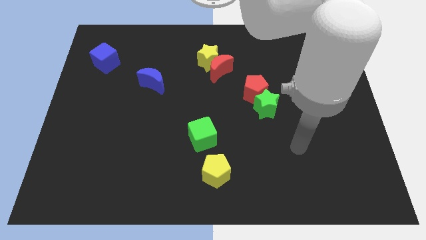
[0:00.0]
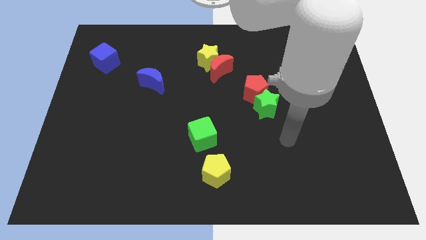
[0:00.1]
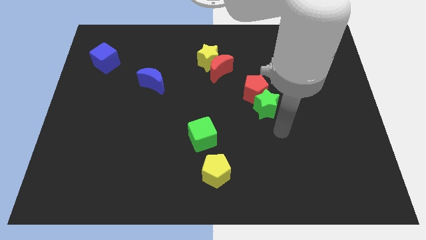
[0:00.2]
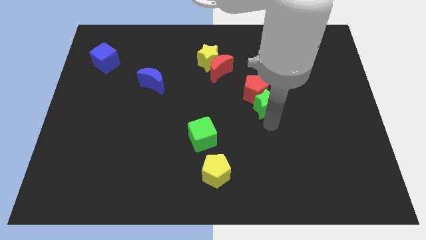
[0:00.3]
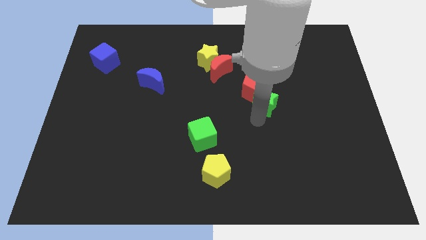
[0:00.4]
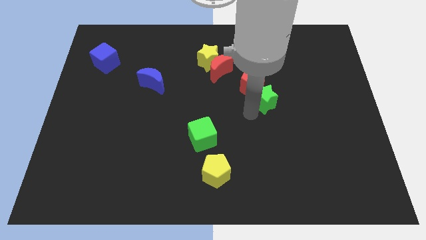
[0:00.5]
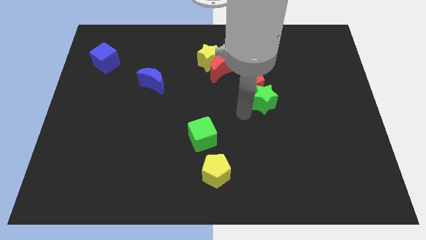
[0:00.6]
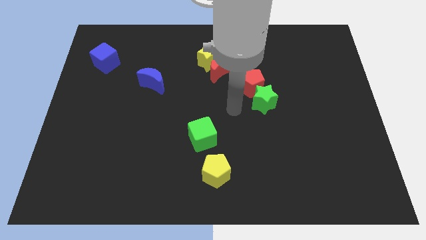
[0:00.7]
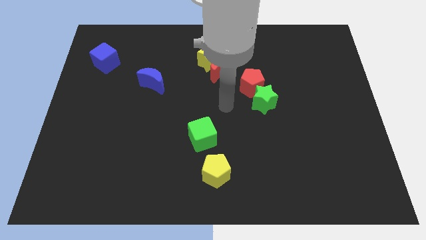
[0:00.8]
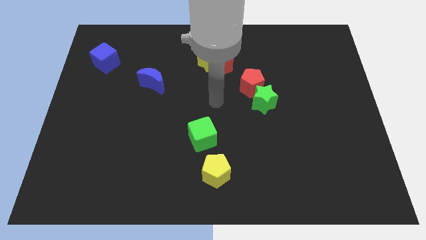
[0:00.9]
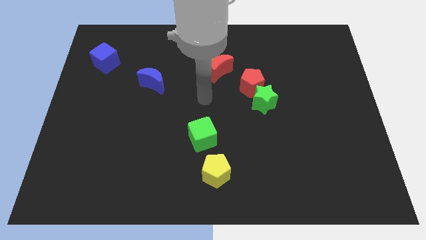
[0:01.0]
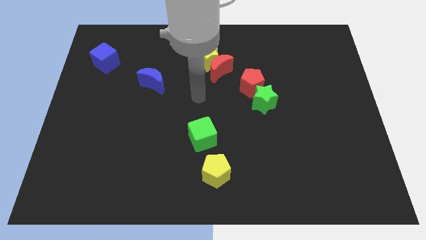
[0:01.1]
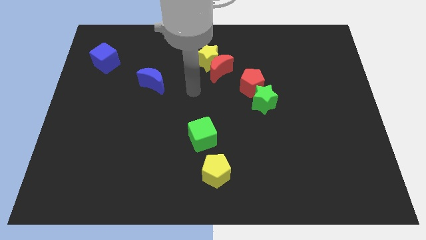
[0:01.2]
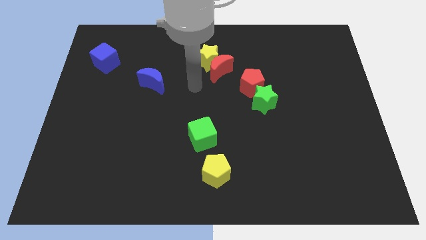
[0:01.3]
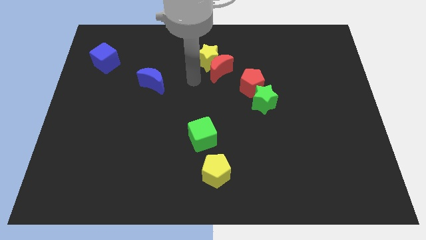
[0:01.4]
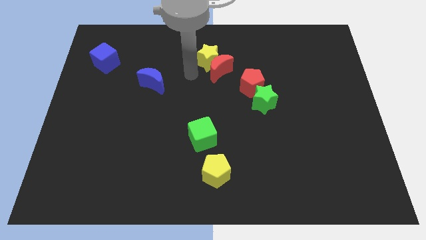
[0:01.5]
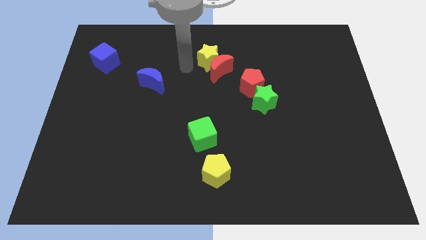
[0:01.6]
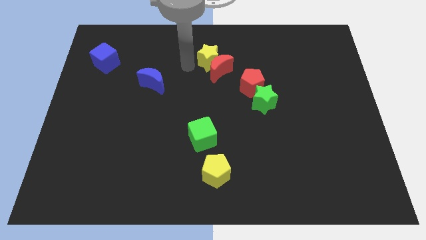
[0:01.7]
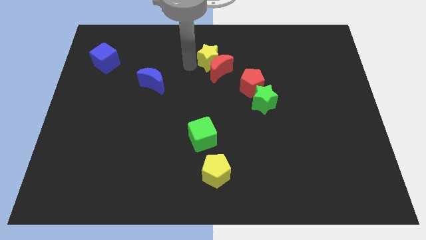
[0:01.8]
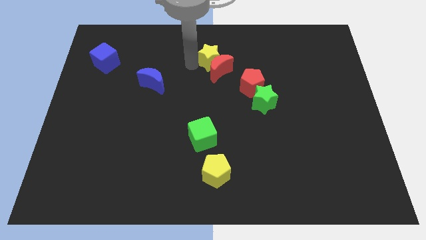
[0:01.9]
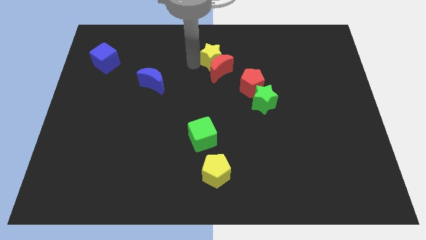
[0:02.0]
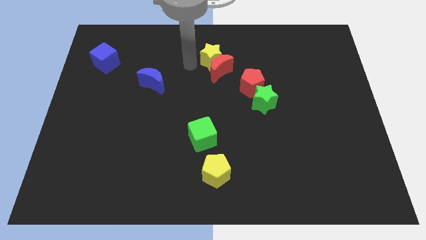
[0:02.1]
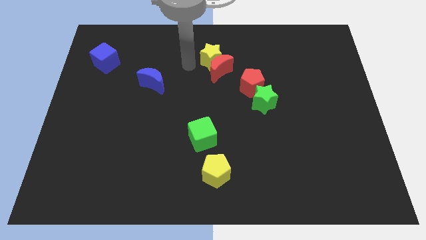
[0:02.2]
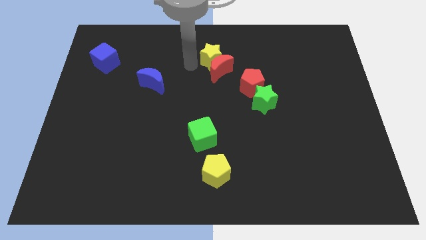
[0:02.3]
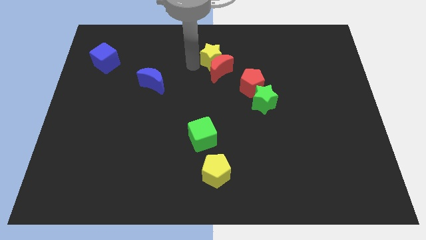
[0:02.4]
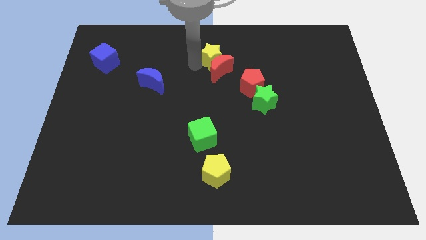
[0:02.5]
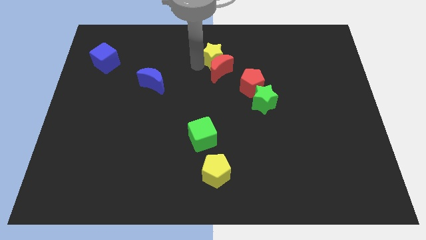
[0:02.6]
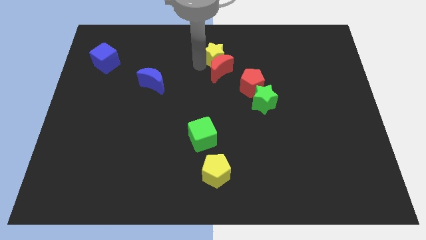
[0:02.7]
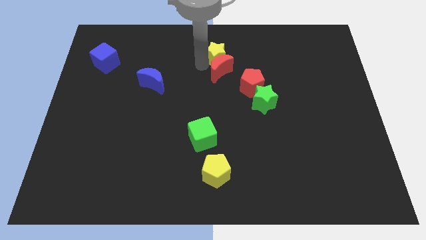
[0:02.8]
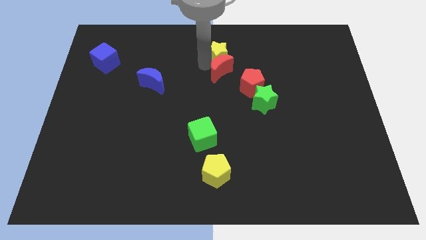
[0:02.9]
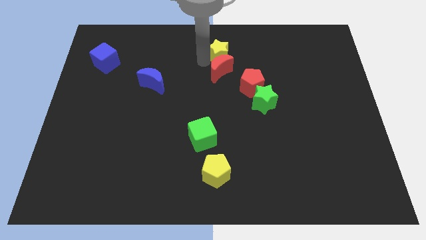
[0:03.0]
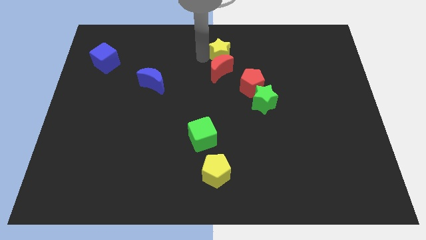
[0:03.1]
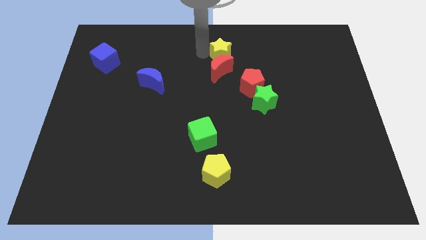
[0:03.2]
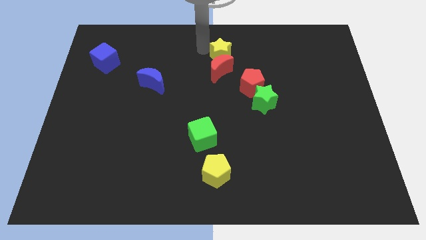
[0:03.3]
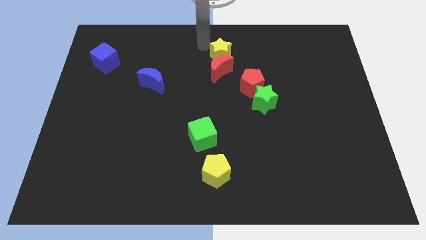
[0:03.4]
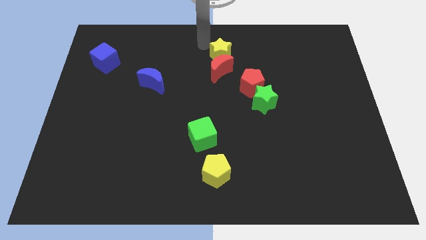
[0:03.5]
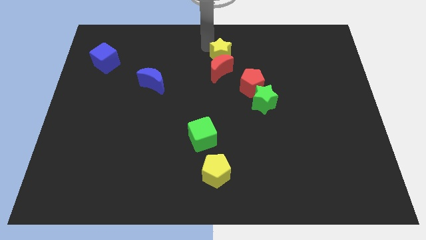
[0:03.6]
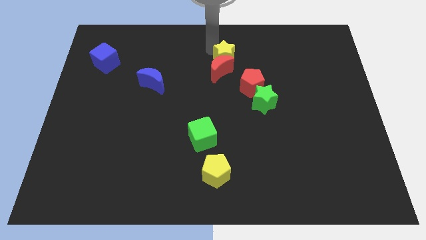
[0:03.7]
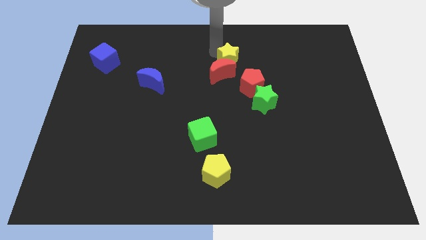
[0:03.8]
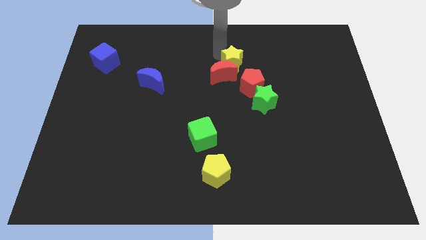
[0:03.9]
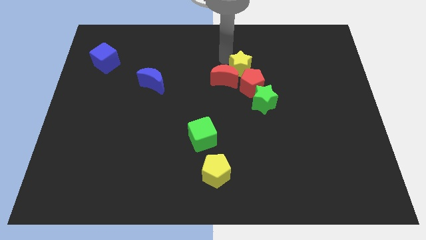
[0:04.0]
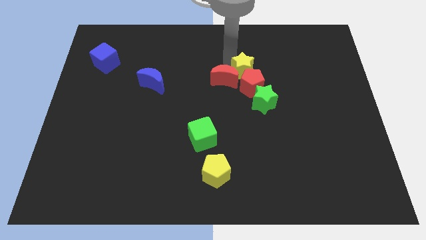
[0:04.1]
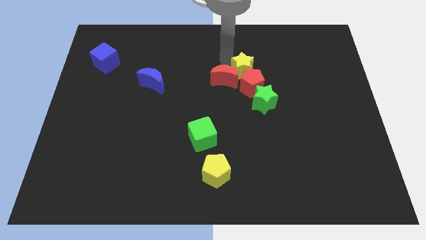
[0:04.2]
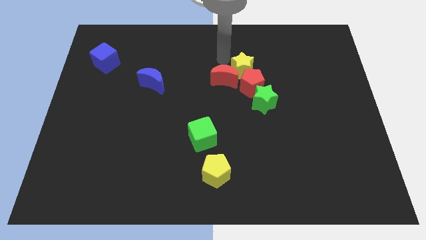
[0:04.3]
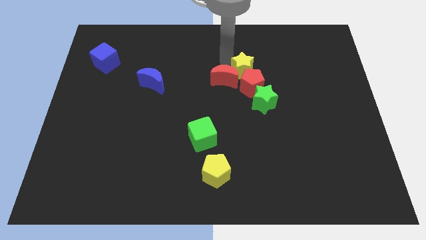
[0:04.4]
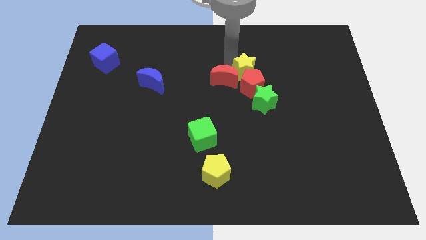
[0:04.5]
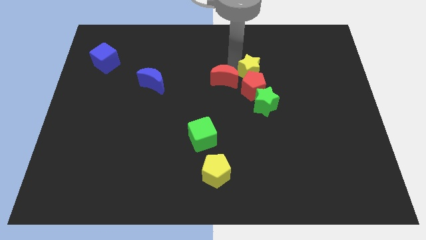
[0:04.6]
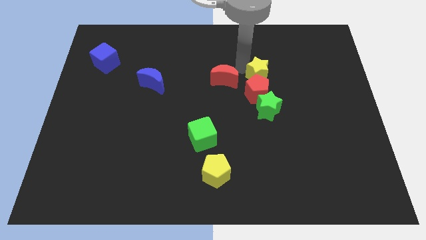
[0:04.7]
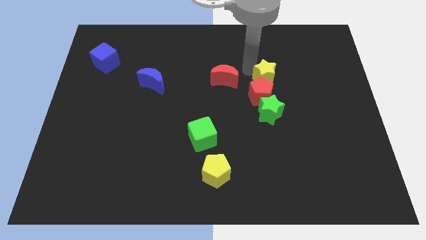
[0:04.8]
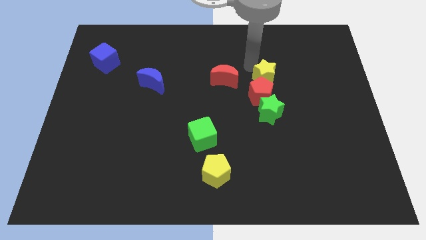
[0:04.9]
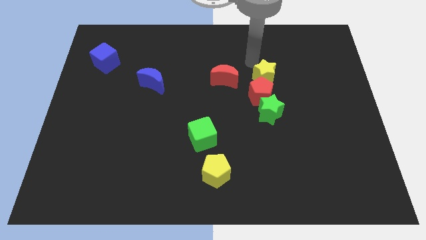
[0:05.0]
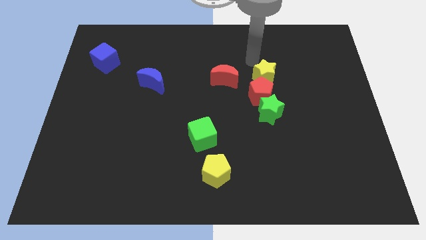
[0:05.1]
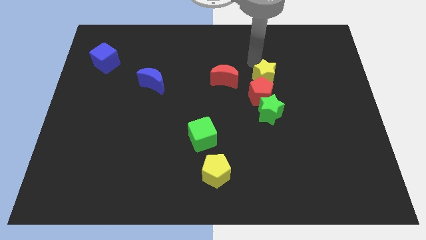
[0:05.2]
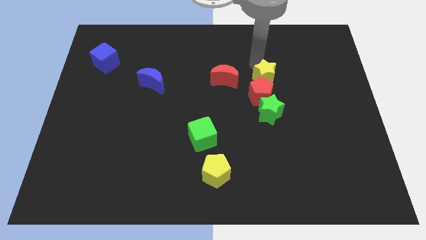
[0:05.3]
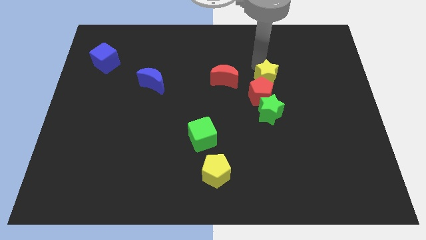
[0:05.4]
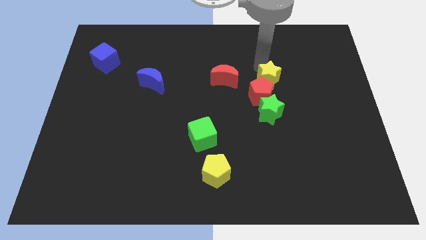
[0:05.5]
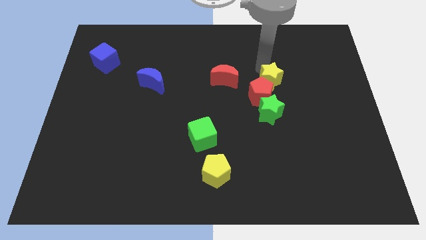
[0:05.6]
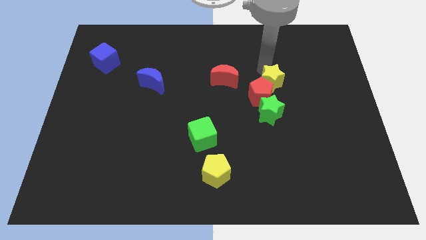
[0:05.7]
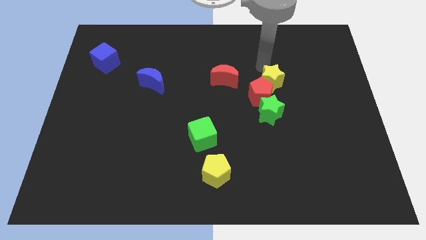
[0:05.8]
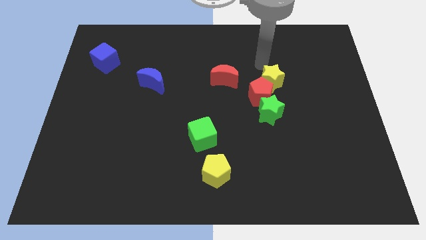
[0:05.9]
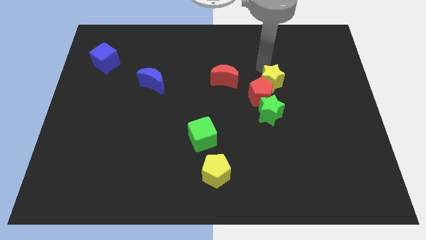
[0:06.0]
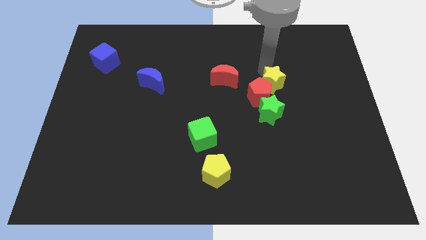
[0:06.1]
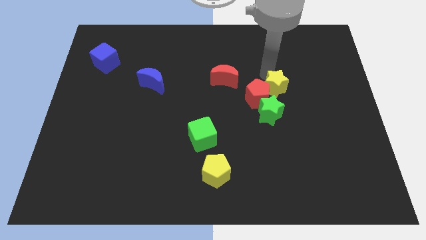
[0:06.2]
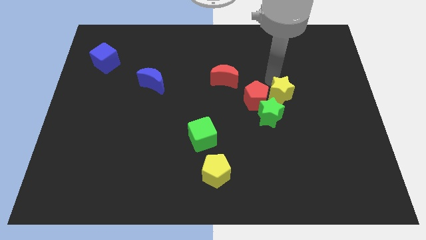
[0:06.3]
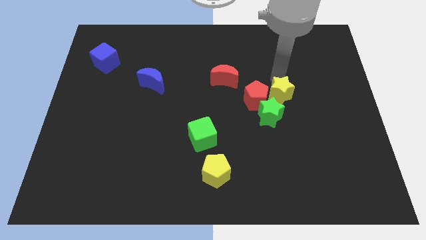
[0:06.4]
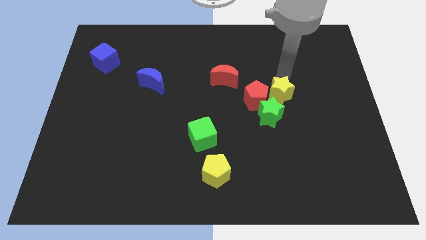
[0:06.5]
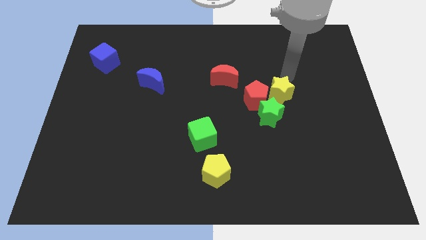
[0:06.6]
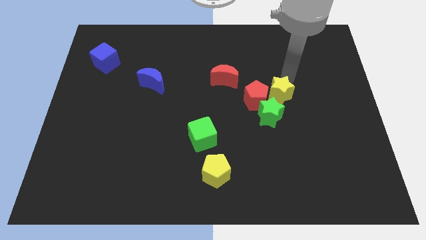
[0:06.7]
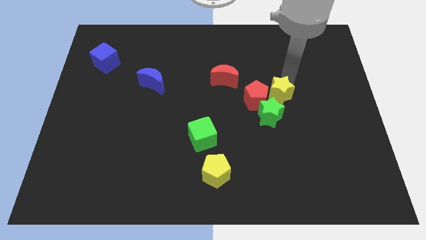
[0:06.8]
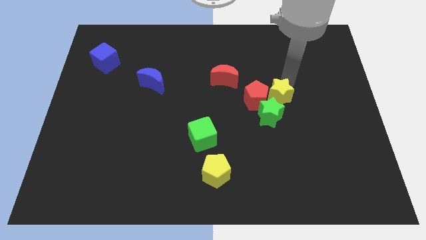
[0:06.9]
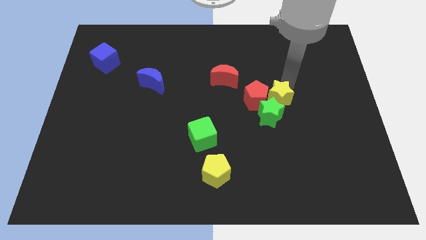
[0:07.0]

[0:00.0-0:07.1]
slide the yellow star next to the green star

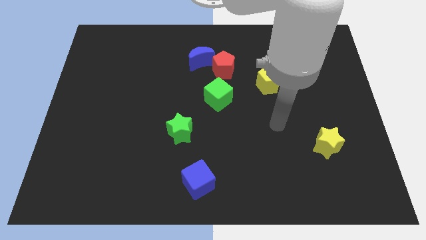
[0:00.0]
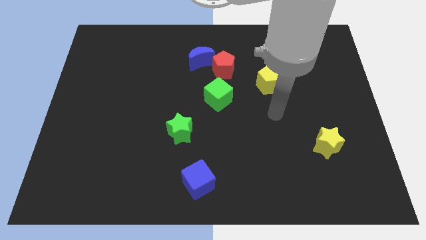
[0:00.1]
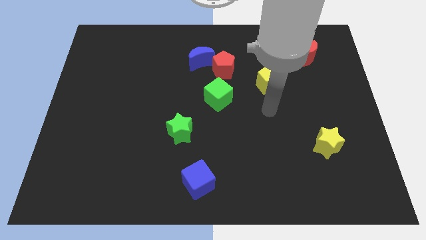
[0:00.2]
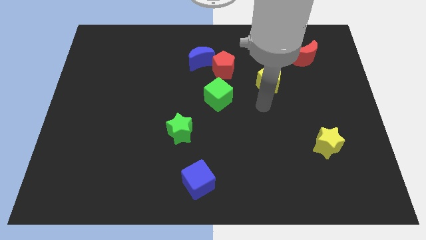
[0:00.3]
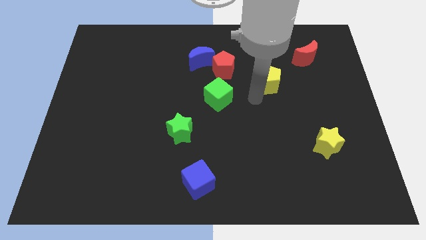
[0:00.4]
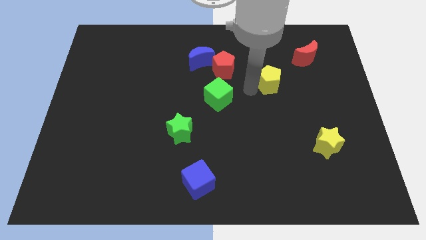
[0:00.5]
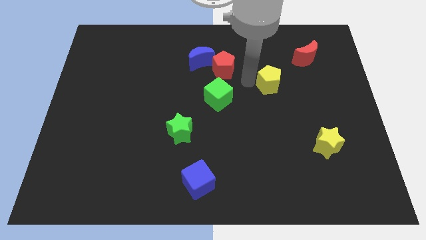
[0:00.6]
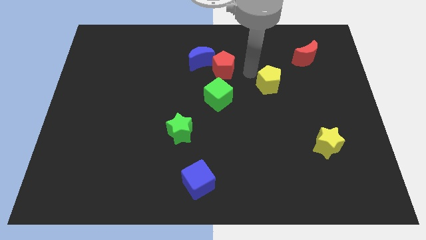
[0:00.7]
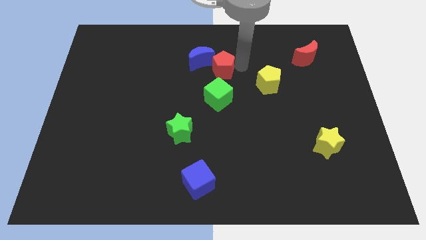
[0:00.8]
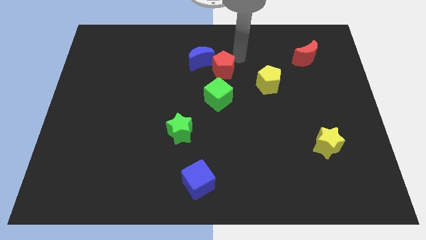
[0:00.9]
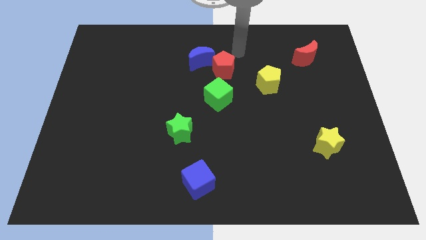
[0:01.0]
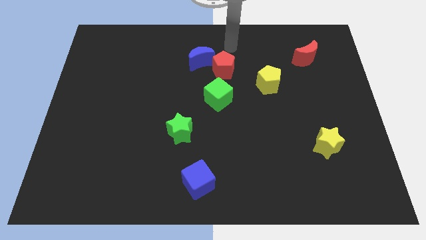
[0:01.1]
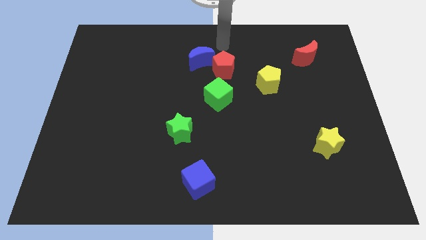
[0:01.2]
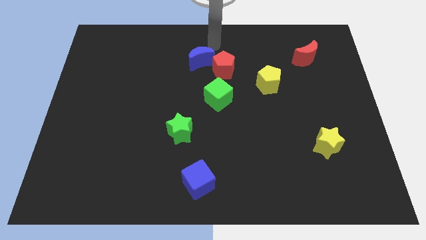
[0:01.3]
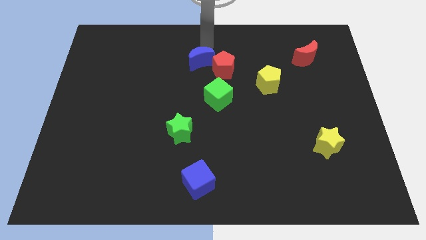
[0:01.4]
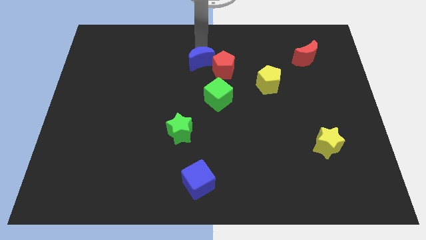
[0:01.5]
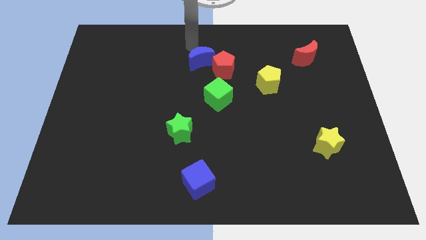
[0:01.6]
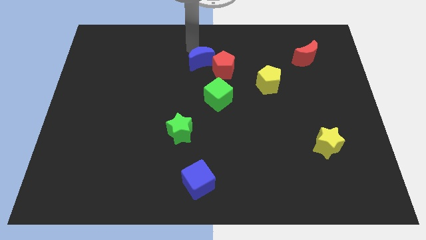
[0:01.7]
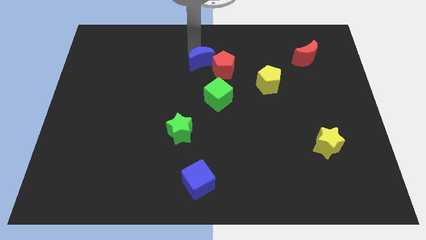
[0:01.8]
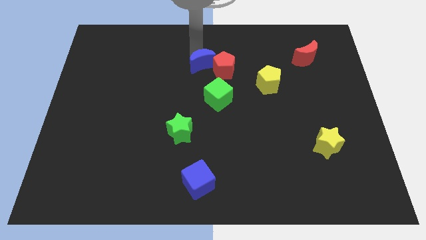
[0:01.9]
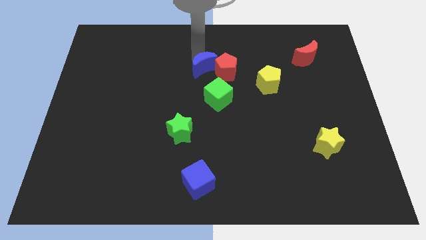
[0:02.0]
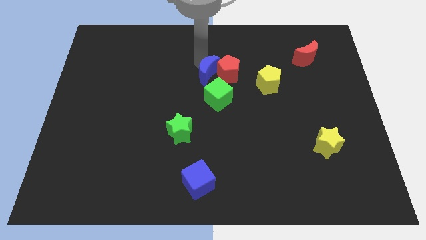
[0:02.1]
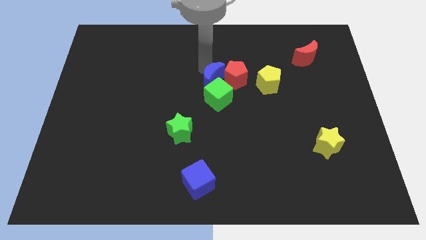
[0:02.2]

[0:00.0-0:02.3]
put the blue moon to the green cube
